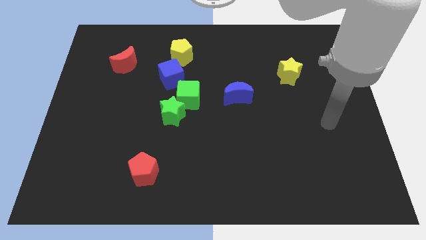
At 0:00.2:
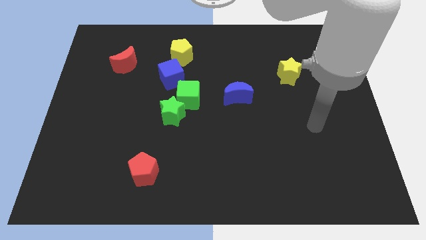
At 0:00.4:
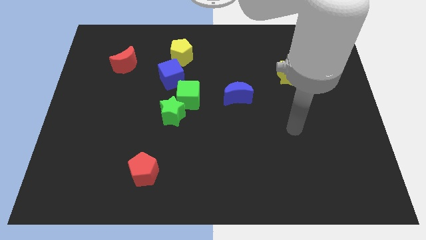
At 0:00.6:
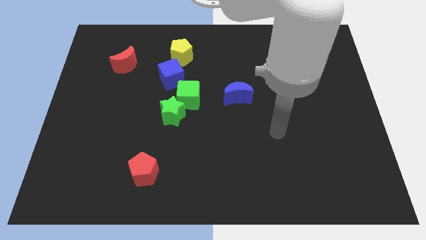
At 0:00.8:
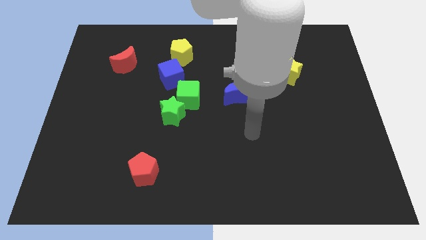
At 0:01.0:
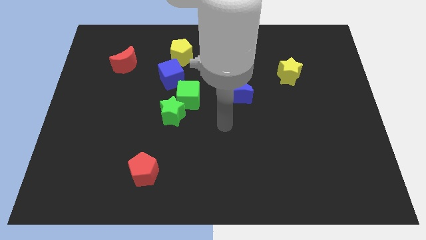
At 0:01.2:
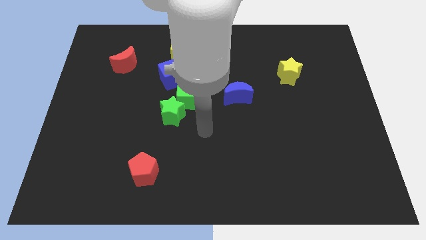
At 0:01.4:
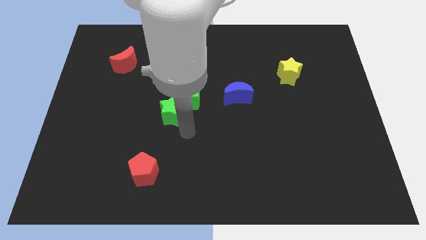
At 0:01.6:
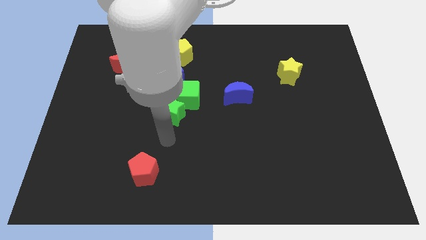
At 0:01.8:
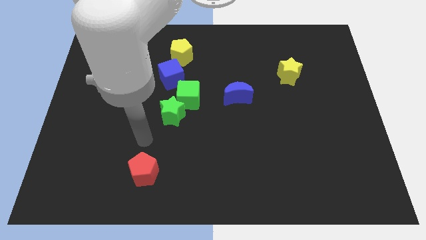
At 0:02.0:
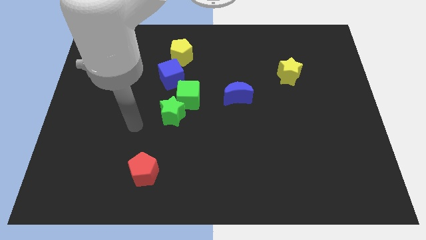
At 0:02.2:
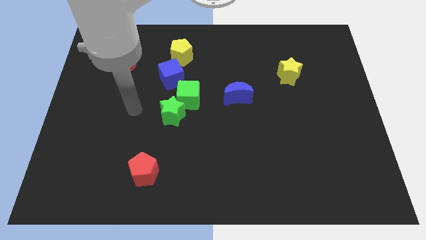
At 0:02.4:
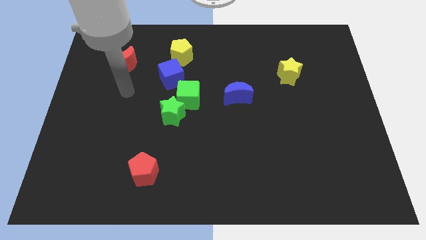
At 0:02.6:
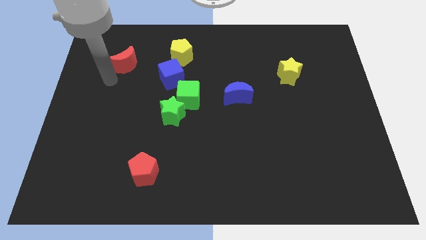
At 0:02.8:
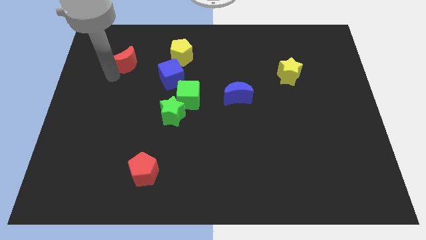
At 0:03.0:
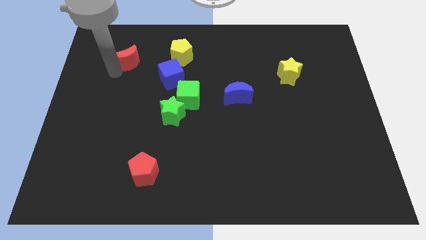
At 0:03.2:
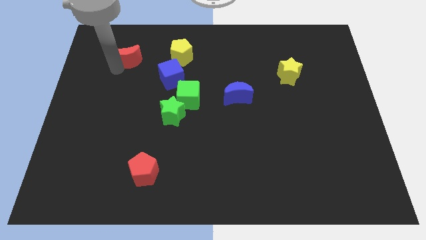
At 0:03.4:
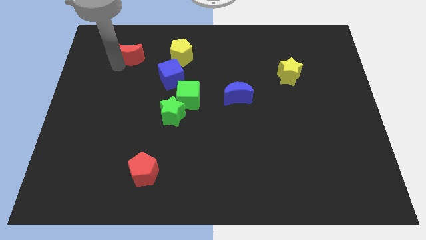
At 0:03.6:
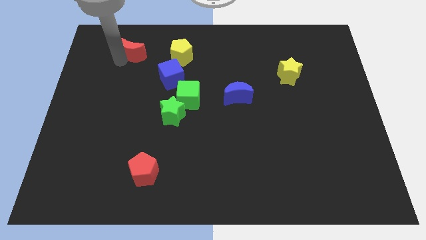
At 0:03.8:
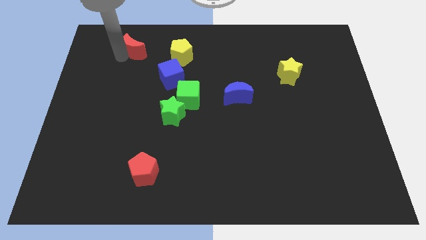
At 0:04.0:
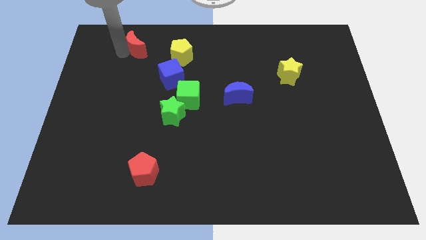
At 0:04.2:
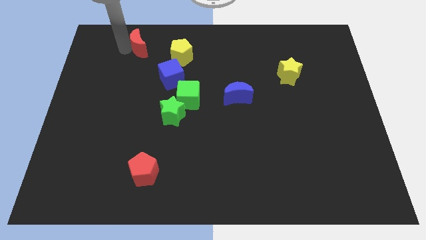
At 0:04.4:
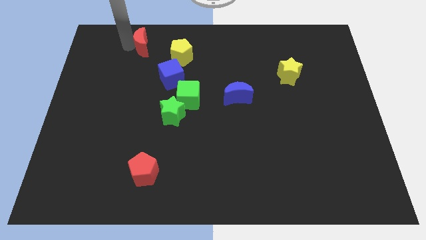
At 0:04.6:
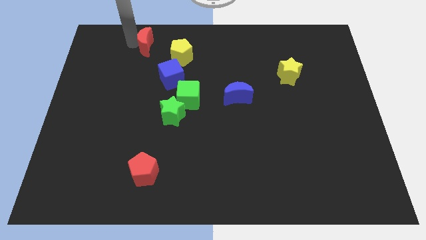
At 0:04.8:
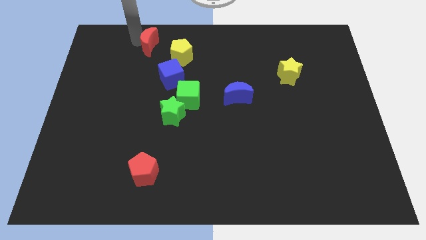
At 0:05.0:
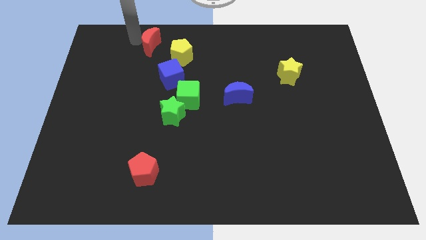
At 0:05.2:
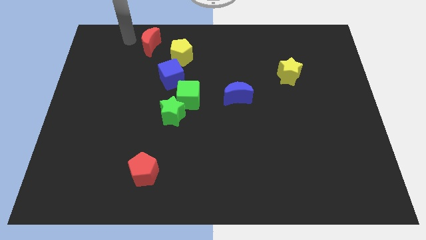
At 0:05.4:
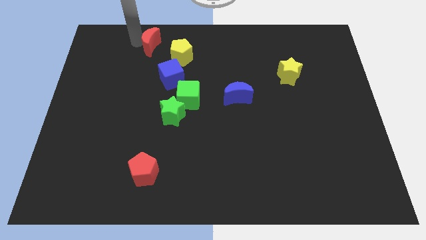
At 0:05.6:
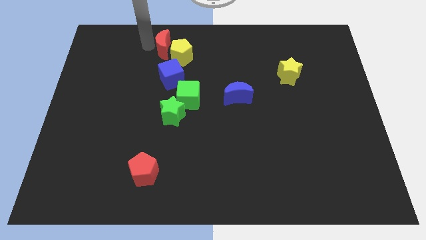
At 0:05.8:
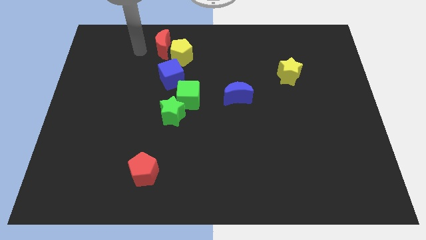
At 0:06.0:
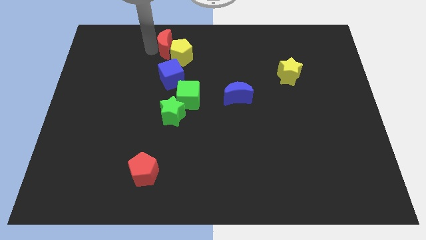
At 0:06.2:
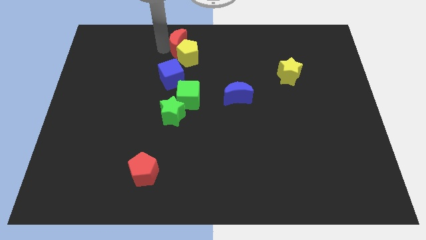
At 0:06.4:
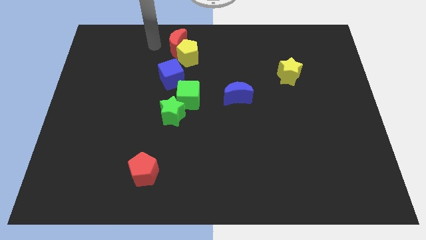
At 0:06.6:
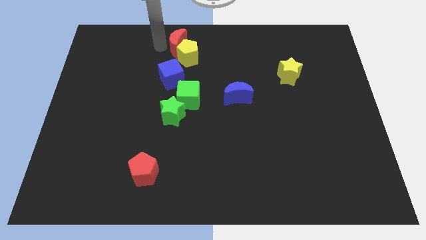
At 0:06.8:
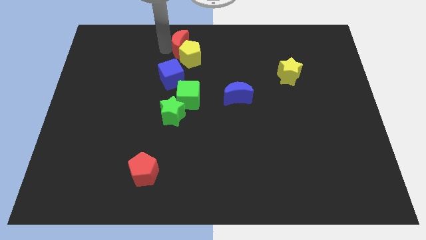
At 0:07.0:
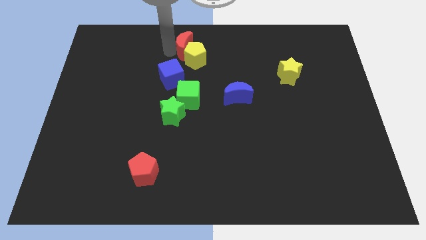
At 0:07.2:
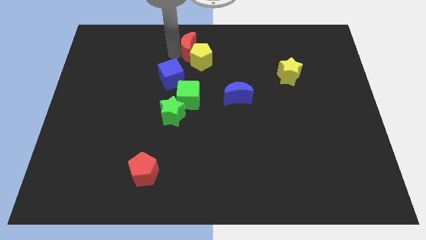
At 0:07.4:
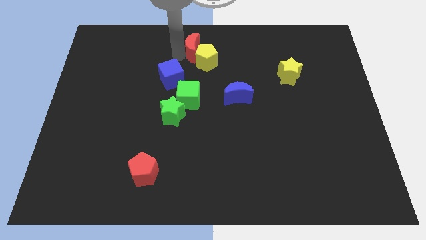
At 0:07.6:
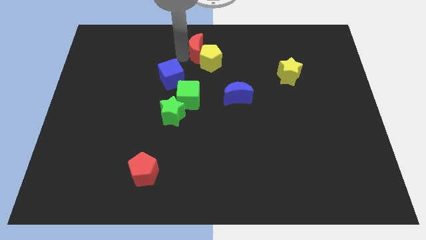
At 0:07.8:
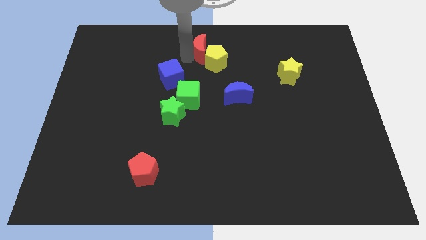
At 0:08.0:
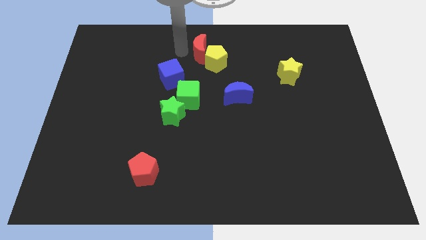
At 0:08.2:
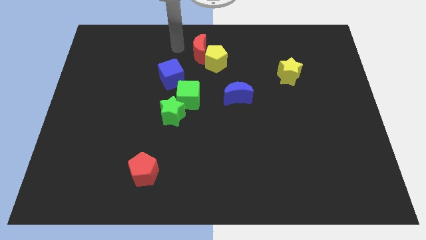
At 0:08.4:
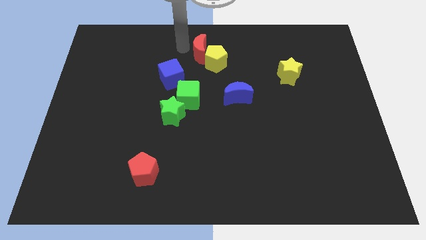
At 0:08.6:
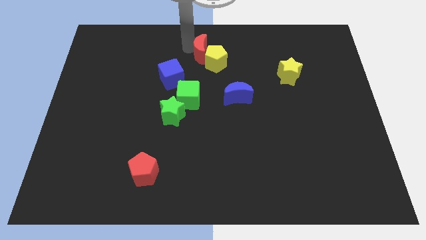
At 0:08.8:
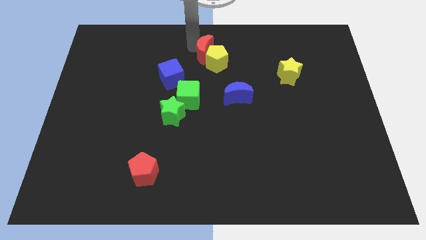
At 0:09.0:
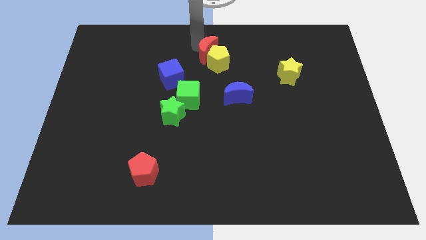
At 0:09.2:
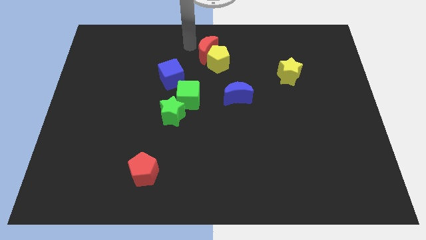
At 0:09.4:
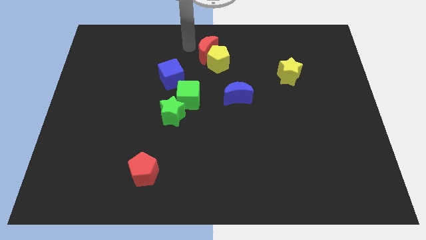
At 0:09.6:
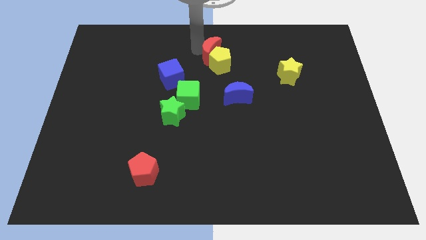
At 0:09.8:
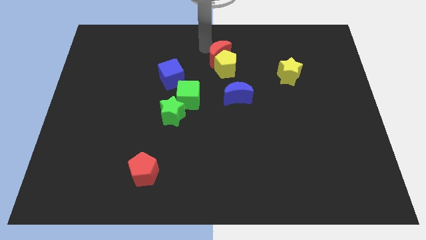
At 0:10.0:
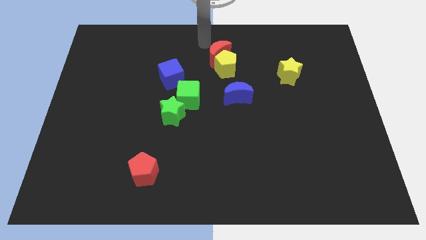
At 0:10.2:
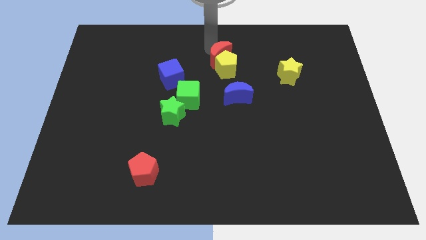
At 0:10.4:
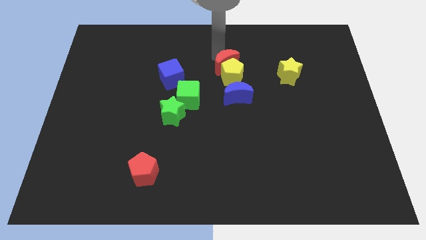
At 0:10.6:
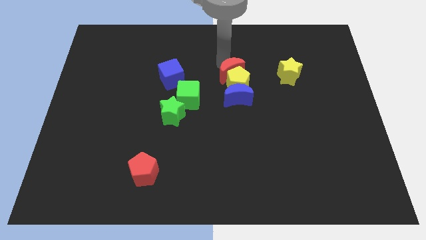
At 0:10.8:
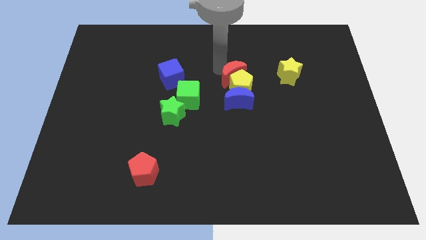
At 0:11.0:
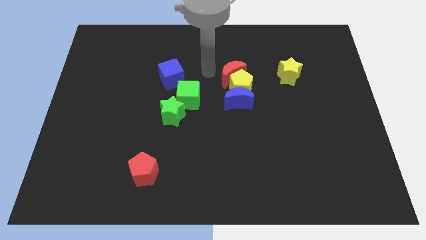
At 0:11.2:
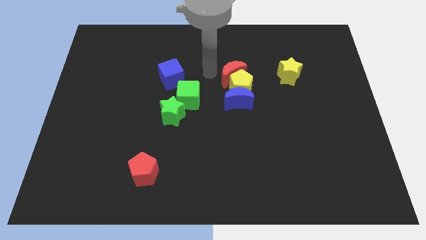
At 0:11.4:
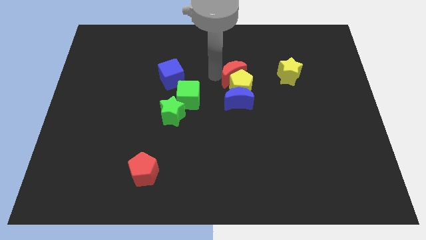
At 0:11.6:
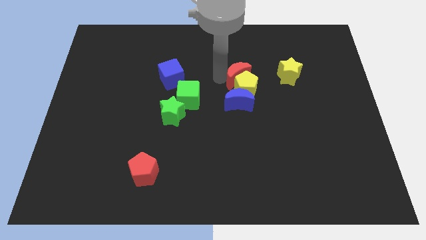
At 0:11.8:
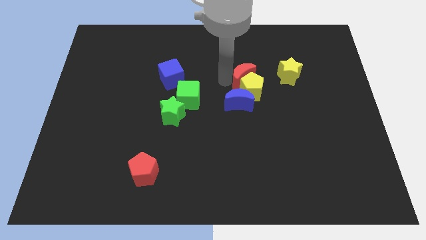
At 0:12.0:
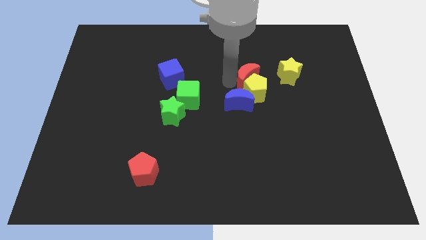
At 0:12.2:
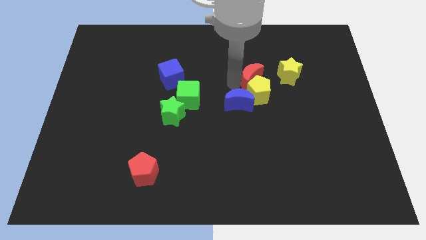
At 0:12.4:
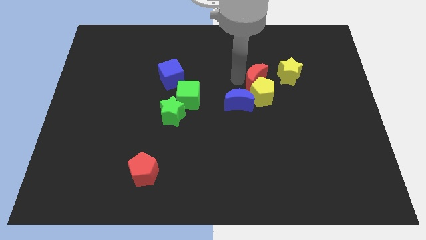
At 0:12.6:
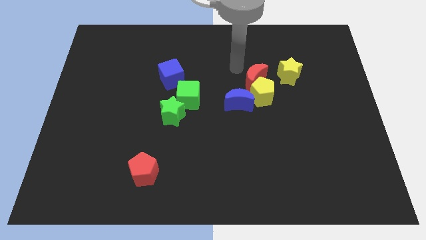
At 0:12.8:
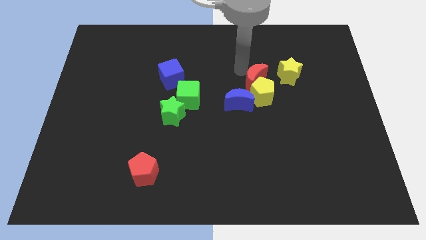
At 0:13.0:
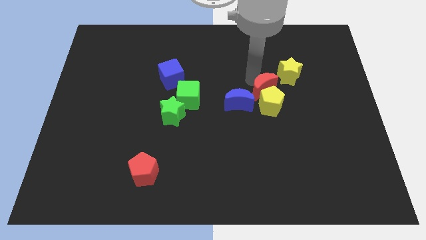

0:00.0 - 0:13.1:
put the red moon to the right side of the blue moon
